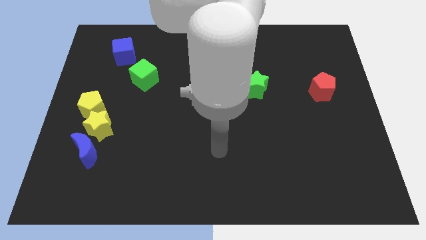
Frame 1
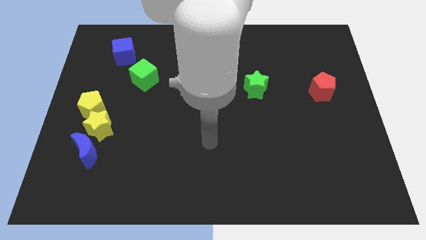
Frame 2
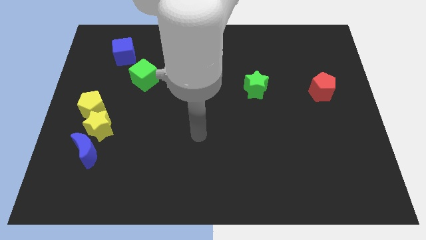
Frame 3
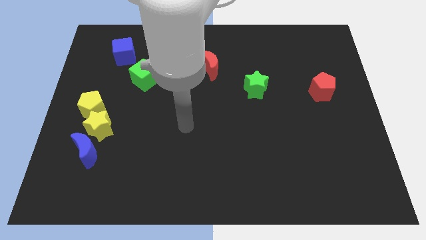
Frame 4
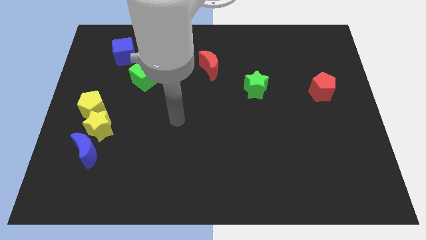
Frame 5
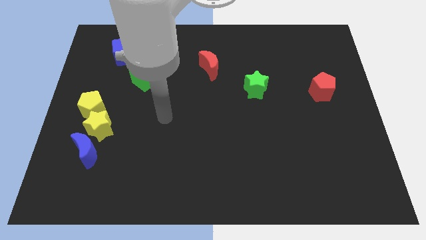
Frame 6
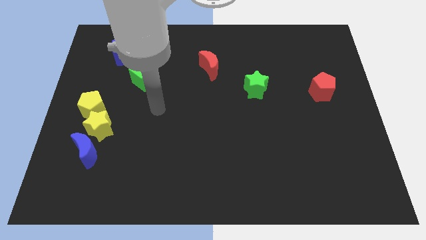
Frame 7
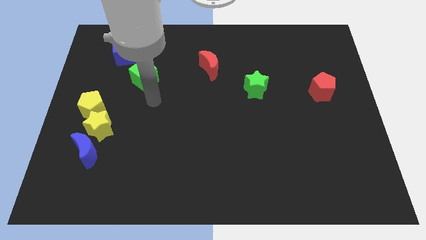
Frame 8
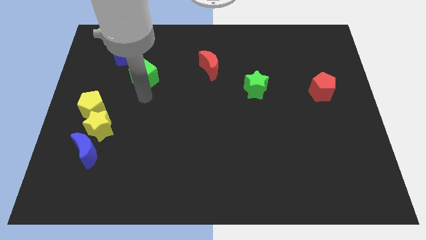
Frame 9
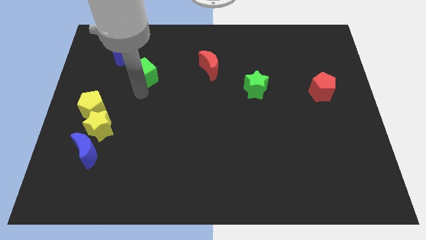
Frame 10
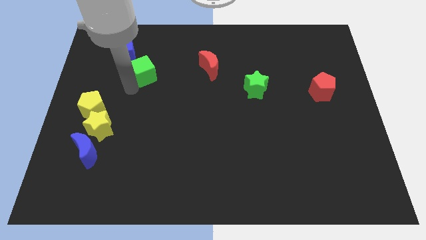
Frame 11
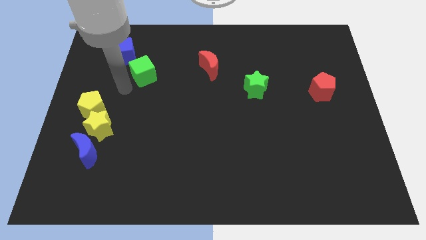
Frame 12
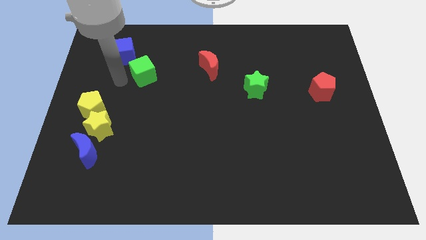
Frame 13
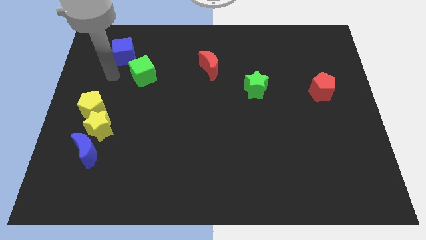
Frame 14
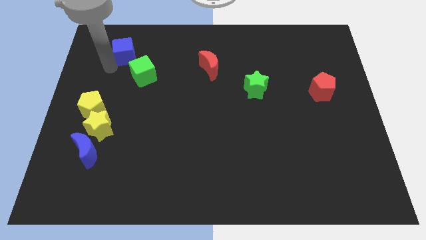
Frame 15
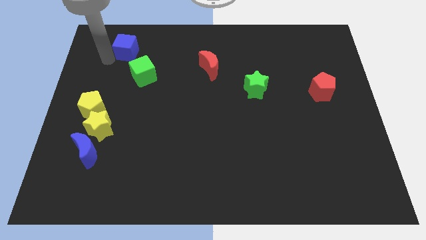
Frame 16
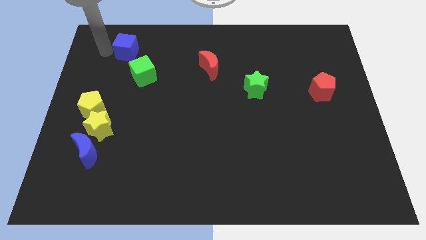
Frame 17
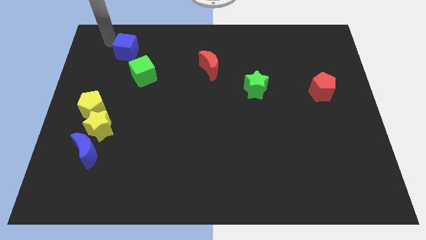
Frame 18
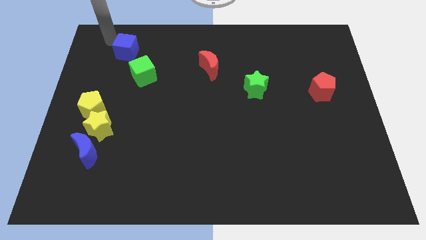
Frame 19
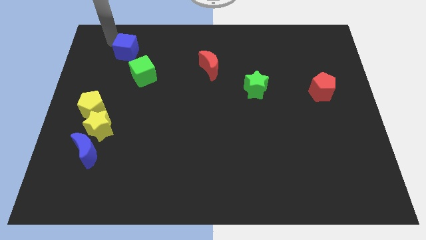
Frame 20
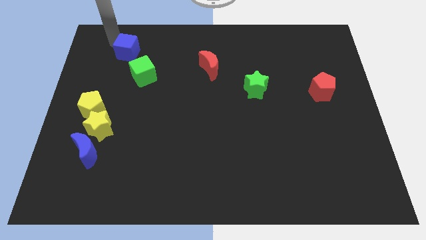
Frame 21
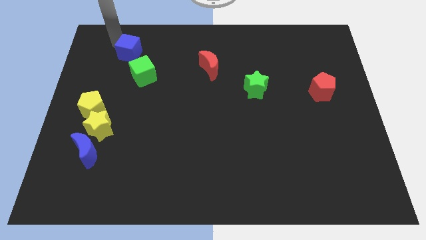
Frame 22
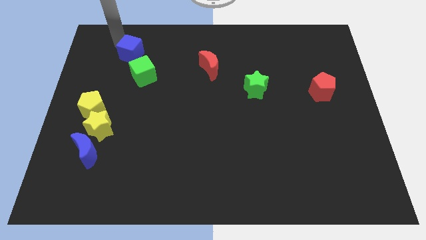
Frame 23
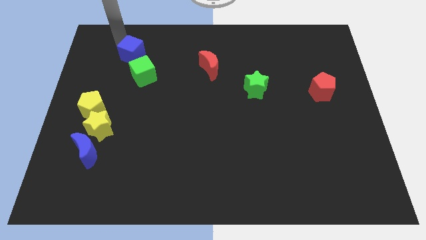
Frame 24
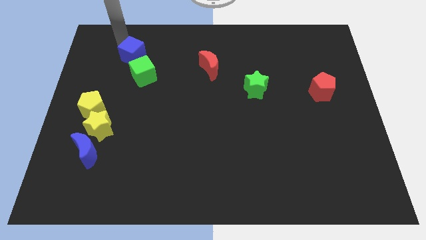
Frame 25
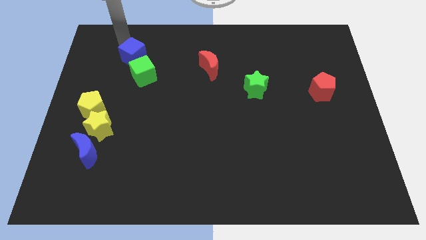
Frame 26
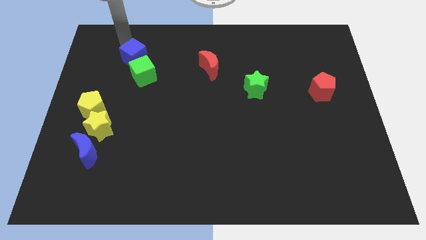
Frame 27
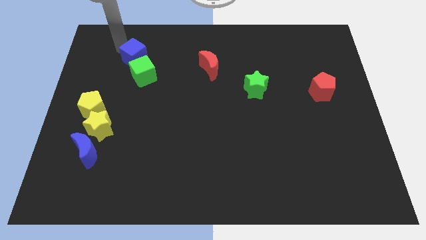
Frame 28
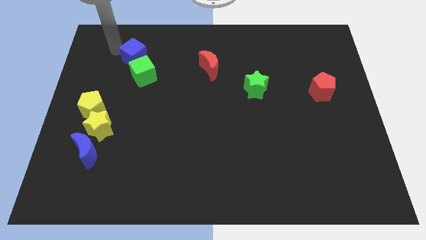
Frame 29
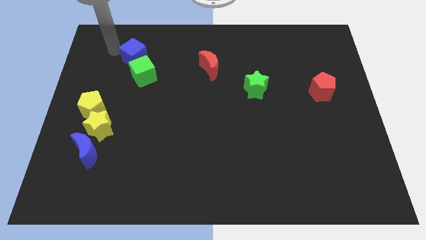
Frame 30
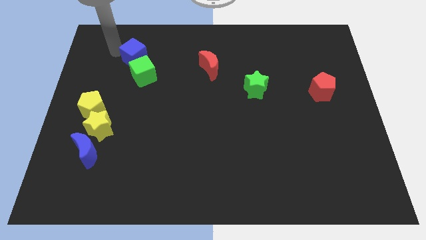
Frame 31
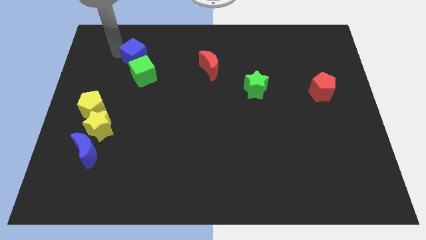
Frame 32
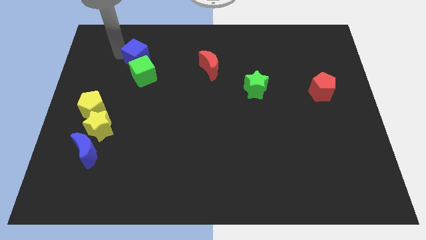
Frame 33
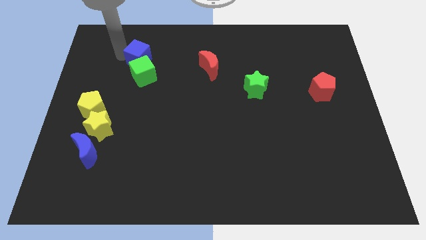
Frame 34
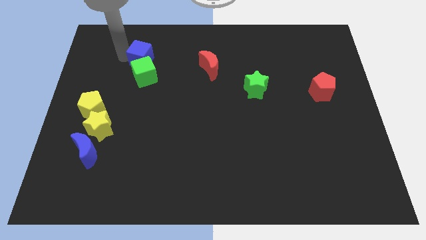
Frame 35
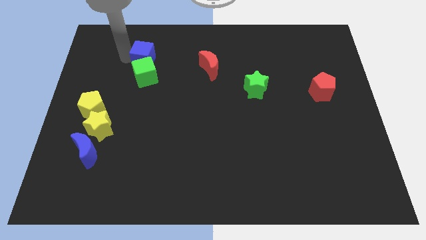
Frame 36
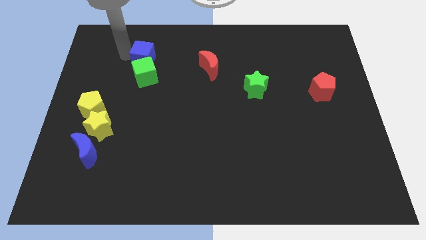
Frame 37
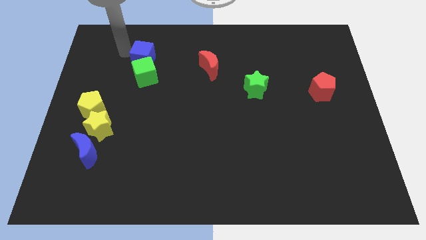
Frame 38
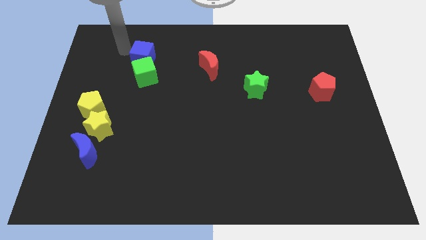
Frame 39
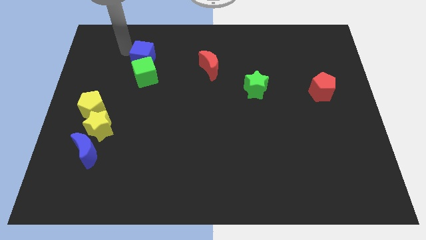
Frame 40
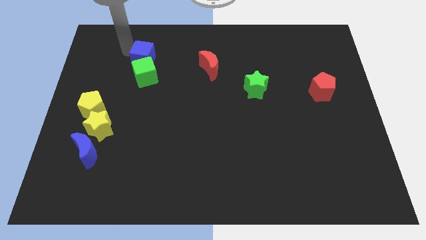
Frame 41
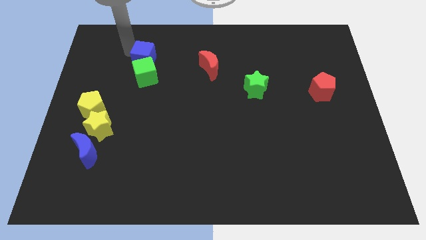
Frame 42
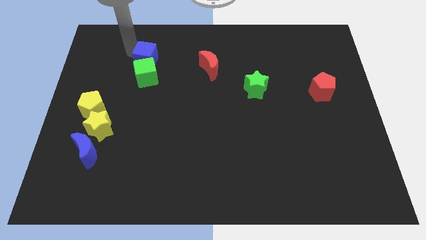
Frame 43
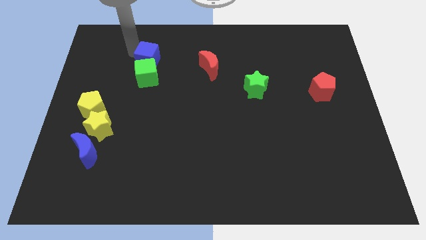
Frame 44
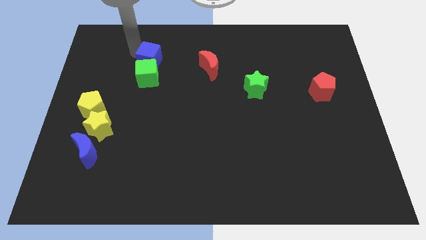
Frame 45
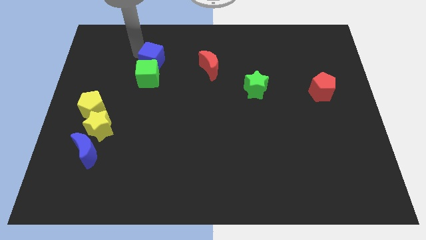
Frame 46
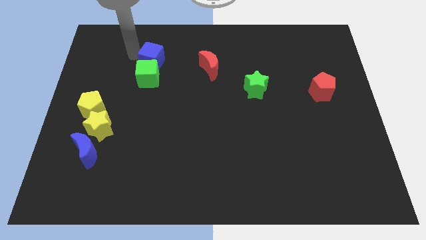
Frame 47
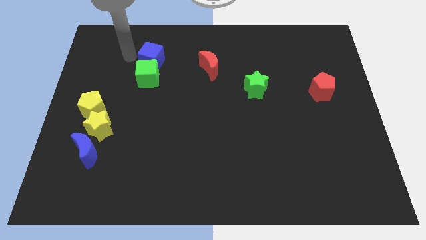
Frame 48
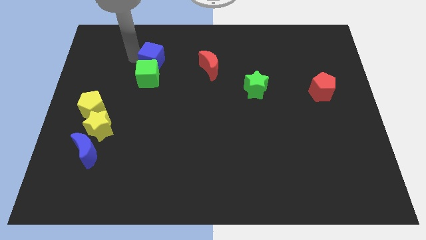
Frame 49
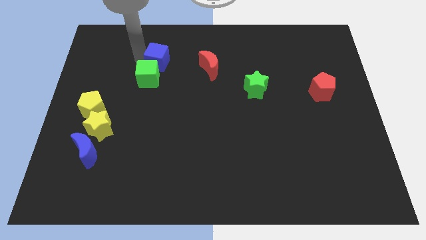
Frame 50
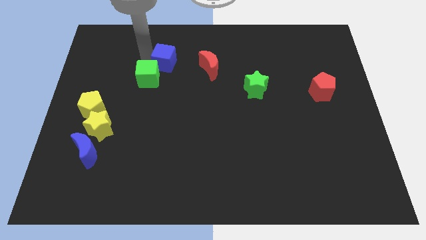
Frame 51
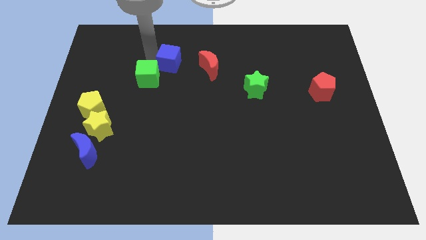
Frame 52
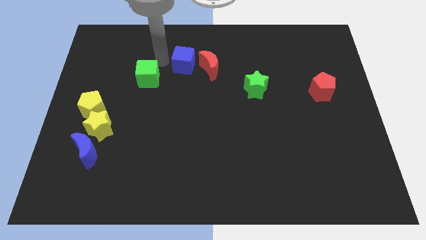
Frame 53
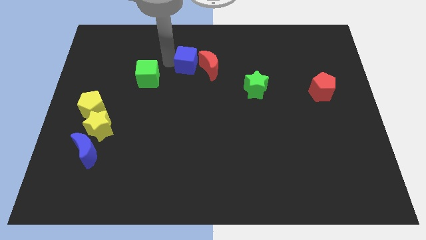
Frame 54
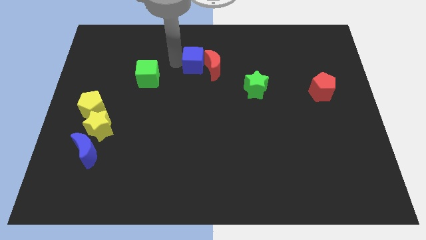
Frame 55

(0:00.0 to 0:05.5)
move the blue cube next to the red moon

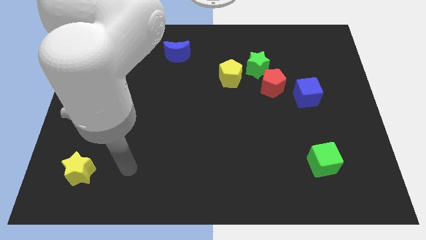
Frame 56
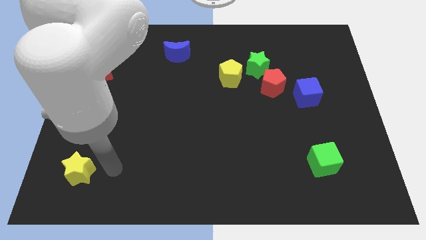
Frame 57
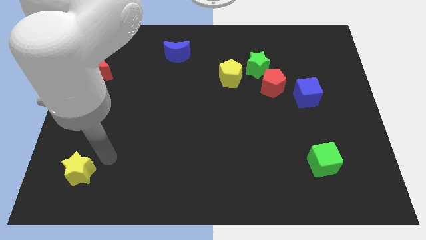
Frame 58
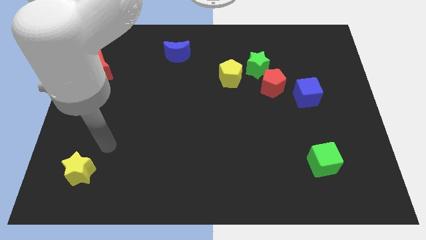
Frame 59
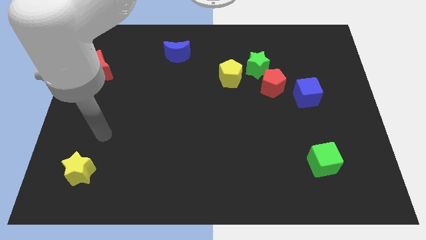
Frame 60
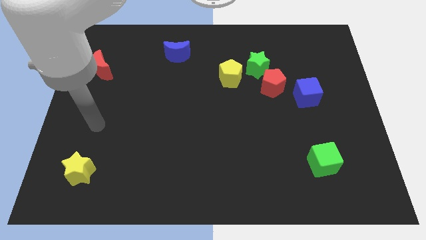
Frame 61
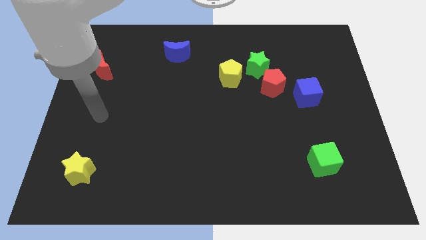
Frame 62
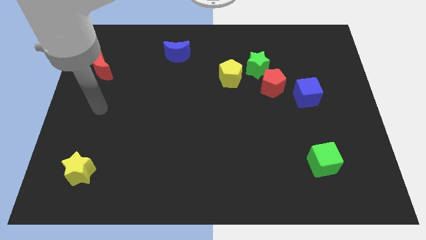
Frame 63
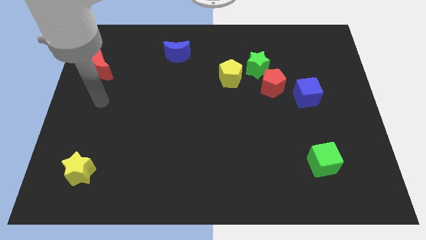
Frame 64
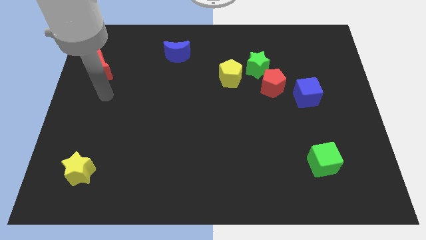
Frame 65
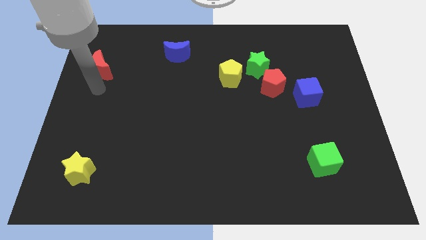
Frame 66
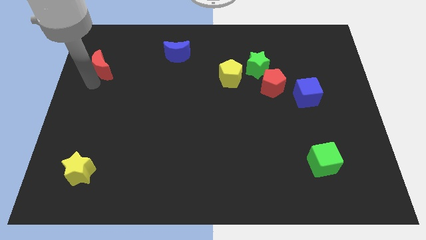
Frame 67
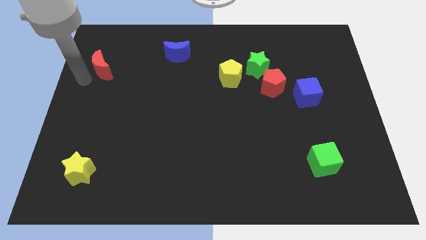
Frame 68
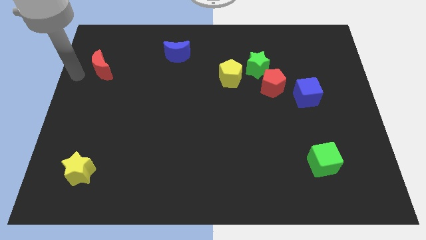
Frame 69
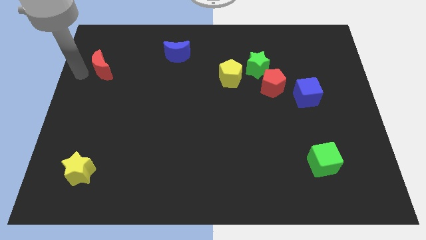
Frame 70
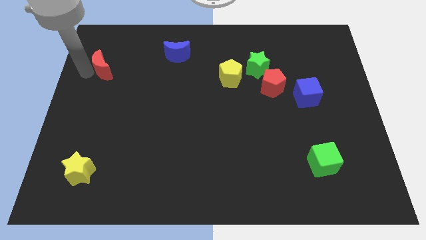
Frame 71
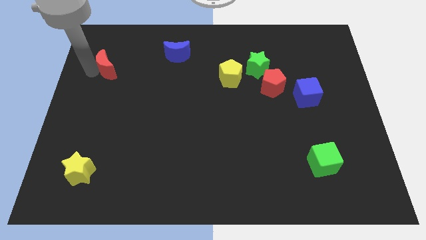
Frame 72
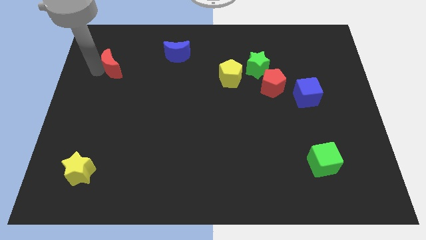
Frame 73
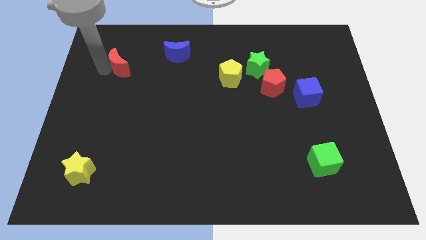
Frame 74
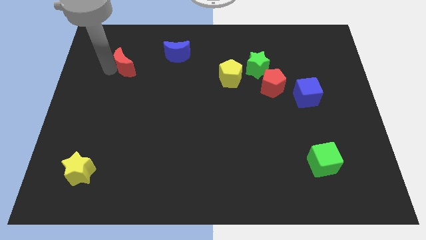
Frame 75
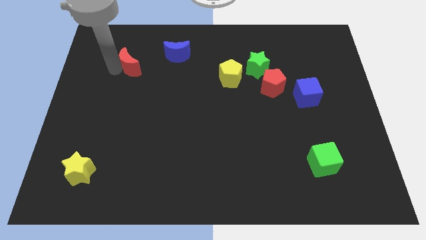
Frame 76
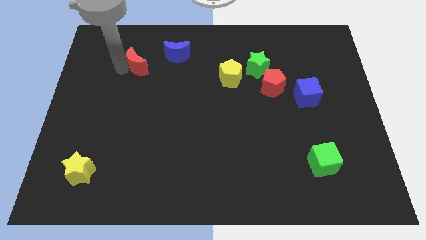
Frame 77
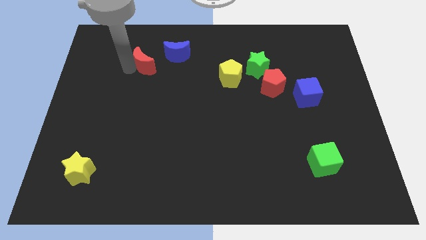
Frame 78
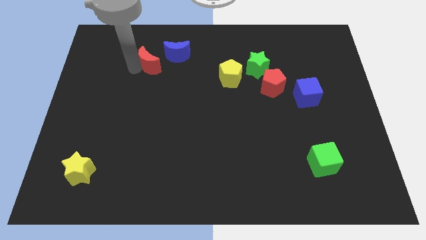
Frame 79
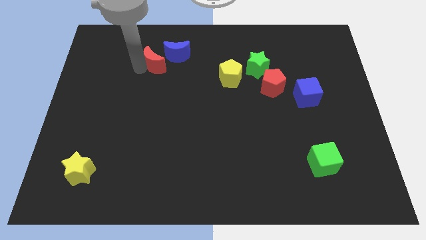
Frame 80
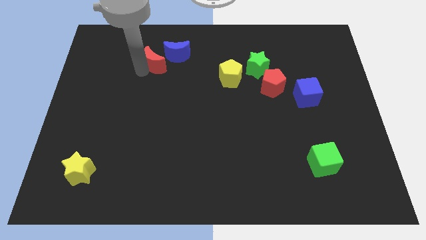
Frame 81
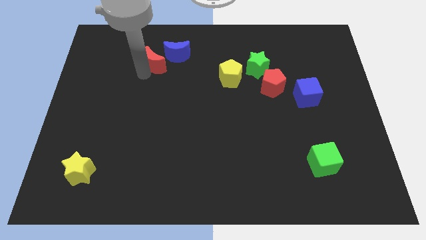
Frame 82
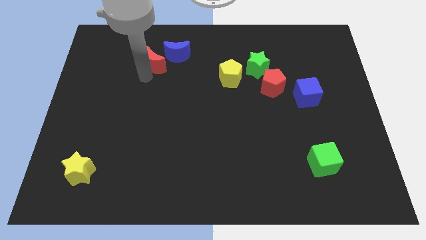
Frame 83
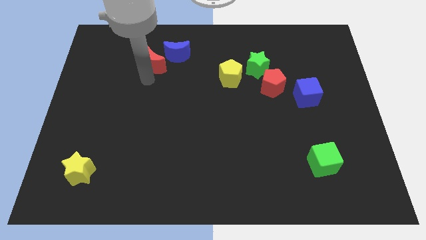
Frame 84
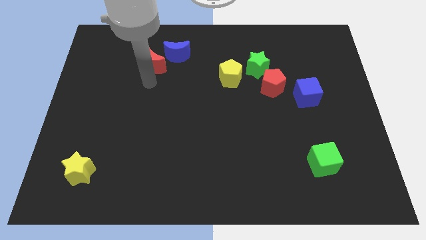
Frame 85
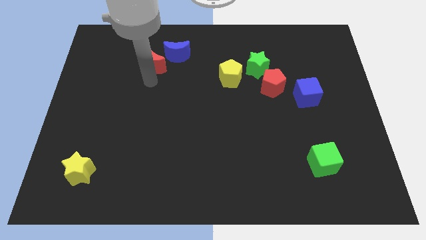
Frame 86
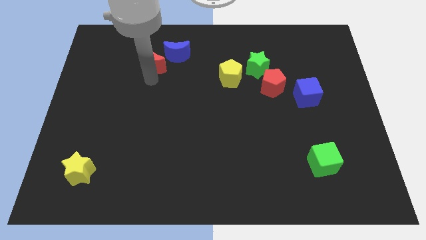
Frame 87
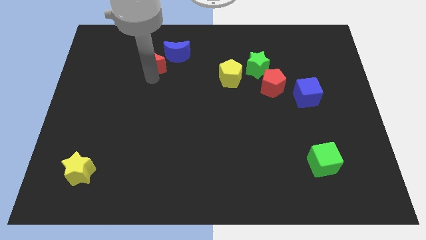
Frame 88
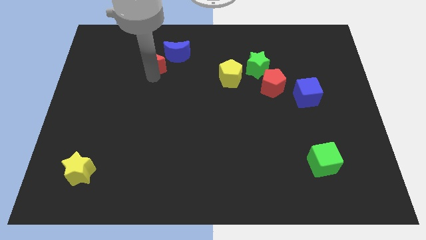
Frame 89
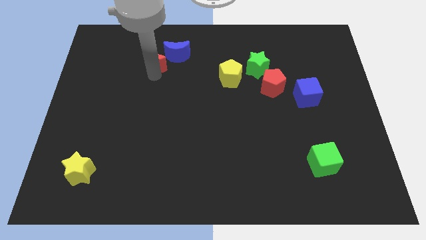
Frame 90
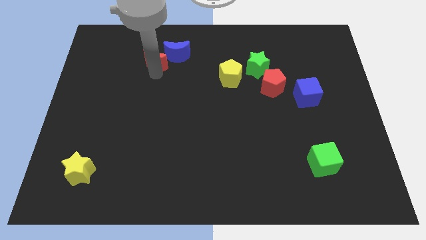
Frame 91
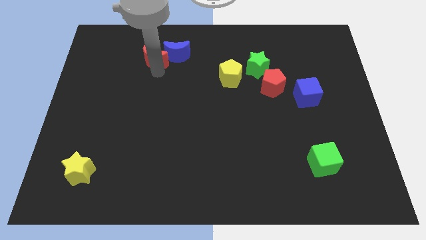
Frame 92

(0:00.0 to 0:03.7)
push the red moon towards the blue moon
